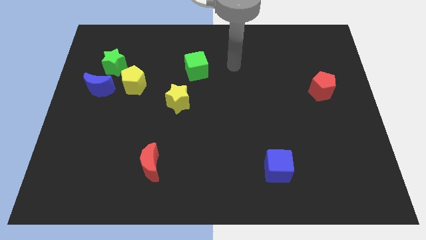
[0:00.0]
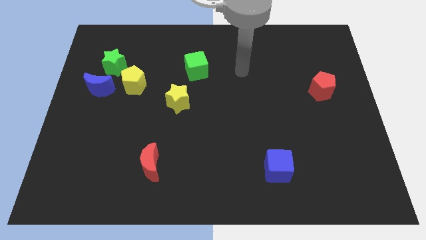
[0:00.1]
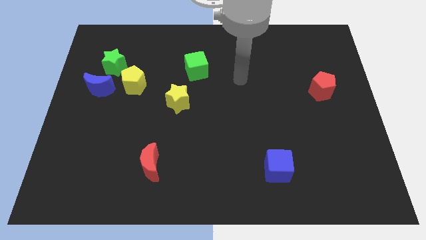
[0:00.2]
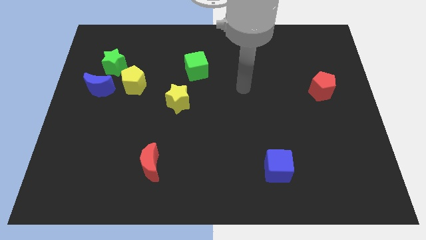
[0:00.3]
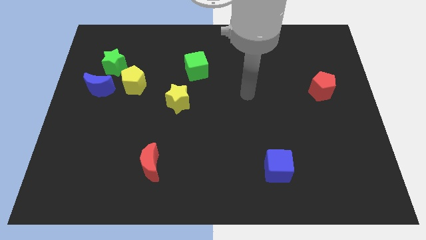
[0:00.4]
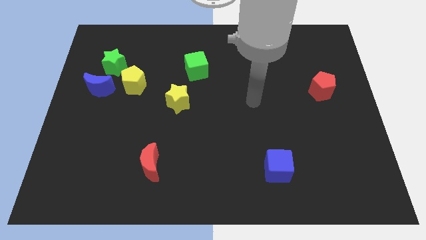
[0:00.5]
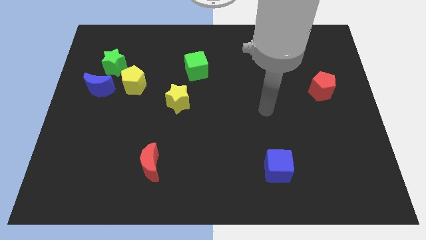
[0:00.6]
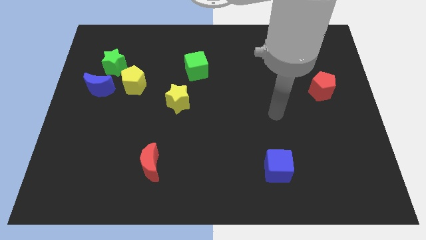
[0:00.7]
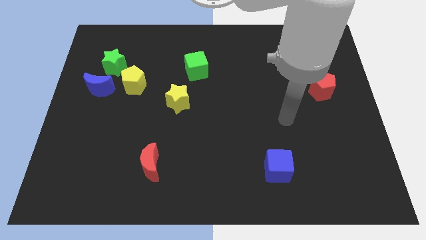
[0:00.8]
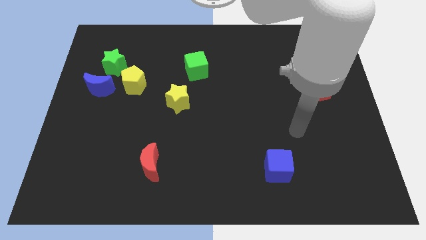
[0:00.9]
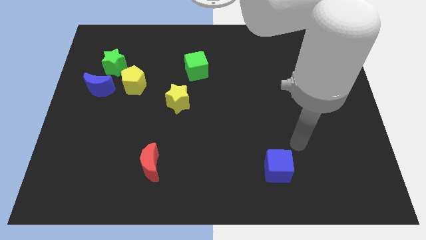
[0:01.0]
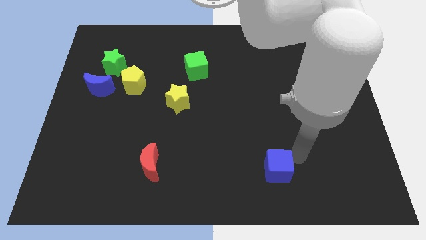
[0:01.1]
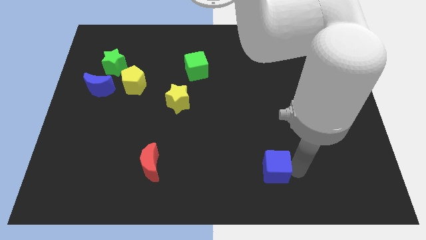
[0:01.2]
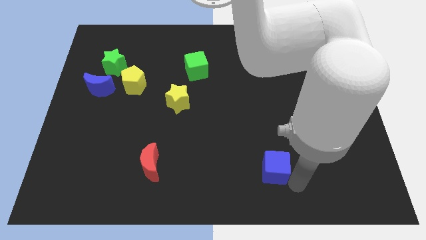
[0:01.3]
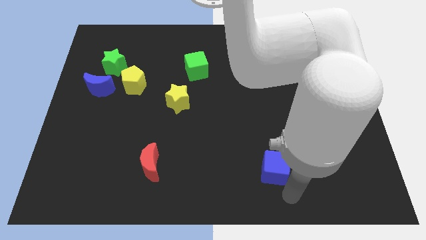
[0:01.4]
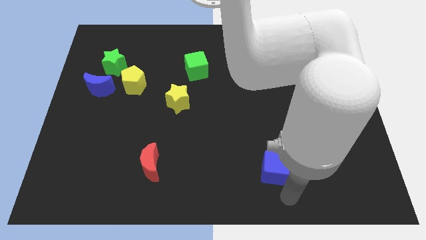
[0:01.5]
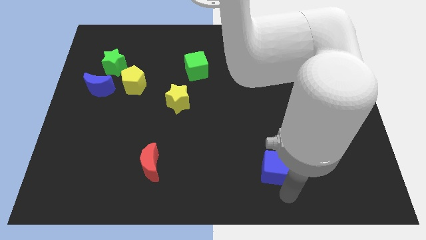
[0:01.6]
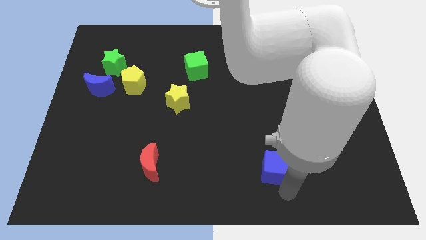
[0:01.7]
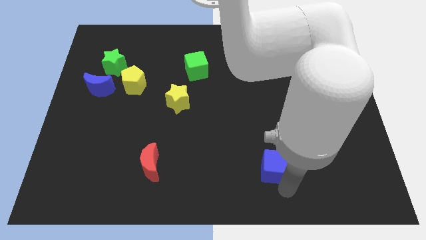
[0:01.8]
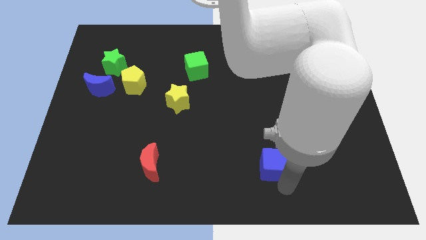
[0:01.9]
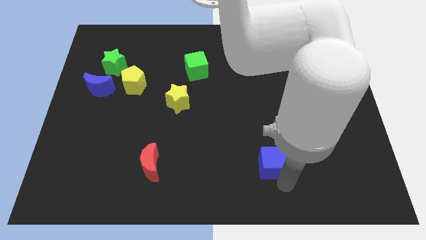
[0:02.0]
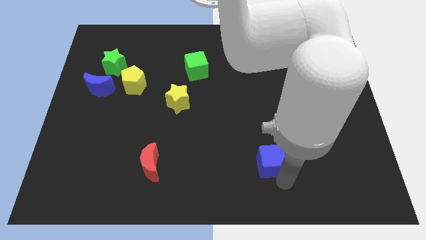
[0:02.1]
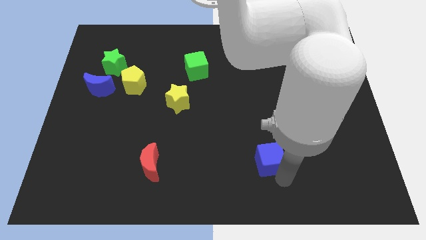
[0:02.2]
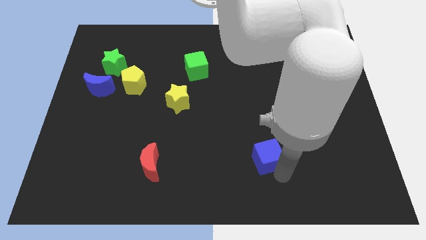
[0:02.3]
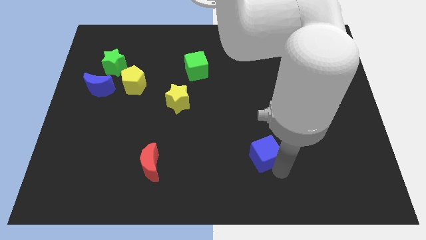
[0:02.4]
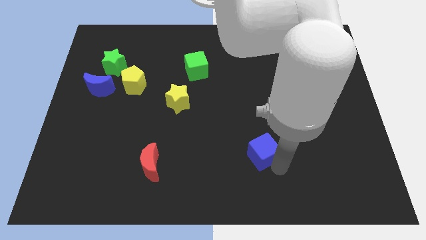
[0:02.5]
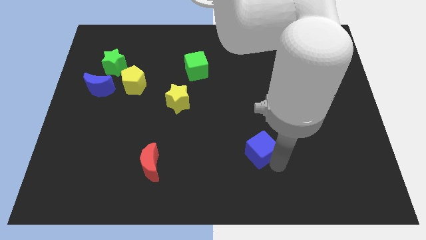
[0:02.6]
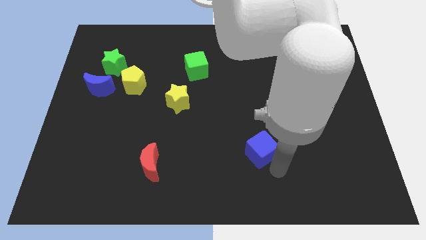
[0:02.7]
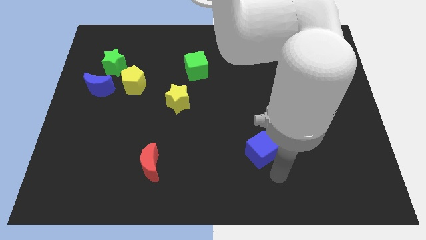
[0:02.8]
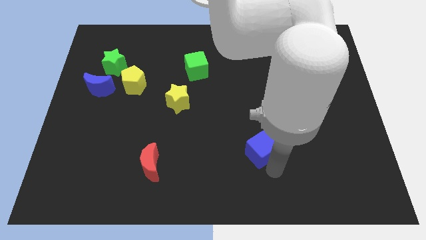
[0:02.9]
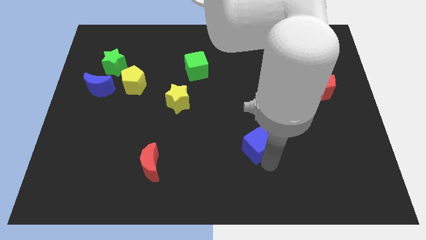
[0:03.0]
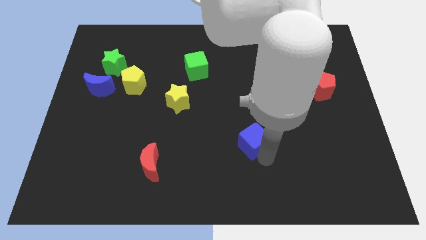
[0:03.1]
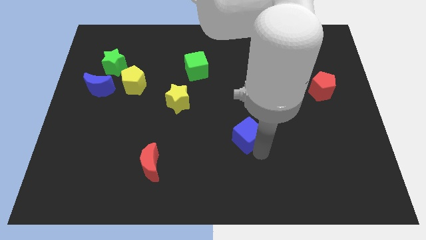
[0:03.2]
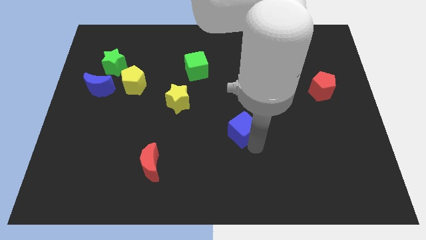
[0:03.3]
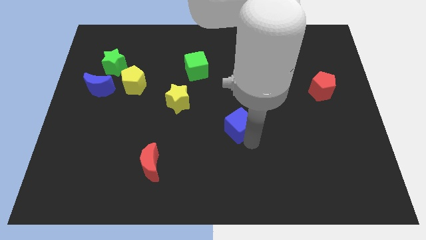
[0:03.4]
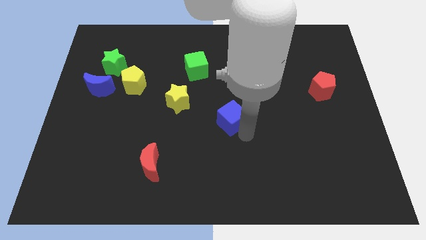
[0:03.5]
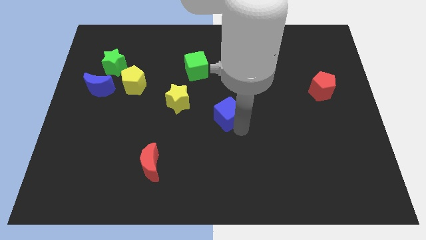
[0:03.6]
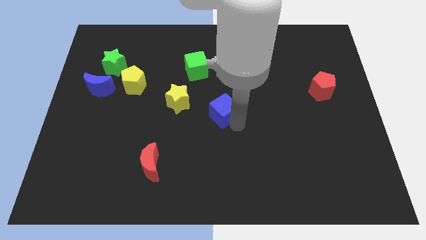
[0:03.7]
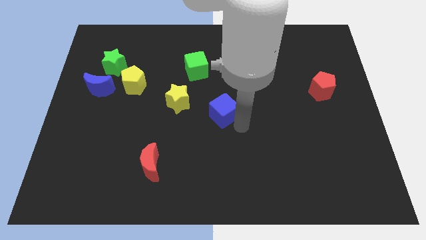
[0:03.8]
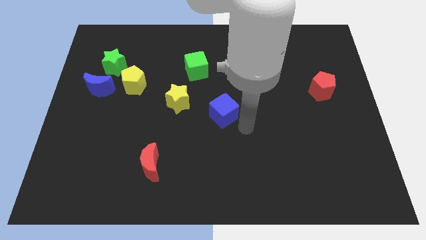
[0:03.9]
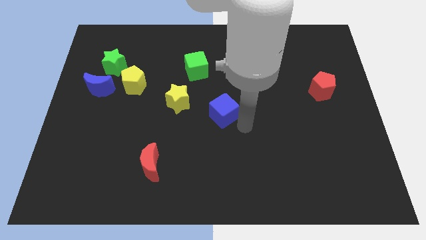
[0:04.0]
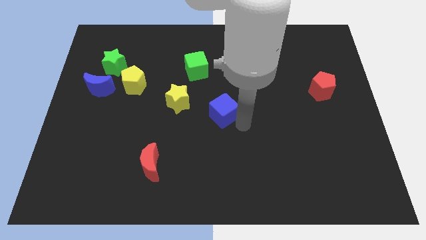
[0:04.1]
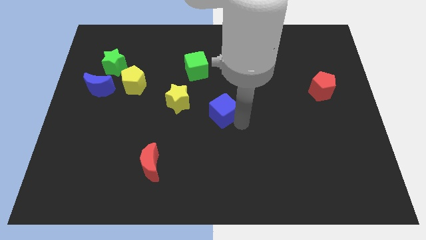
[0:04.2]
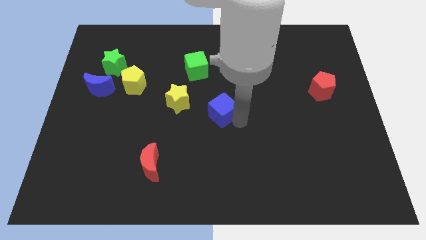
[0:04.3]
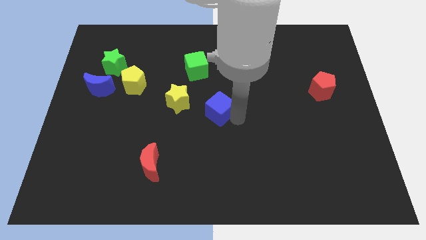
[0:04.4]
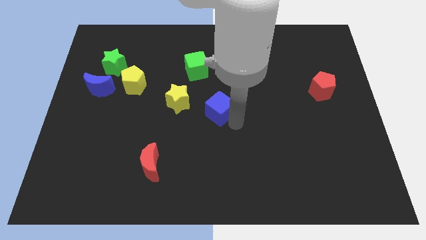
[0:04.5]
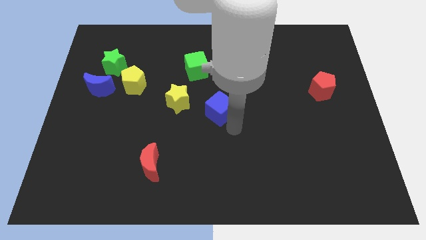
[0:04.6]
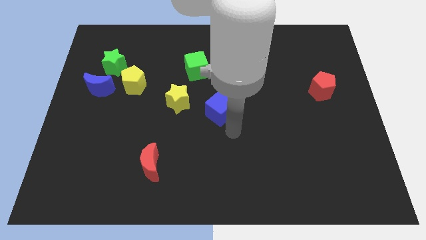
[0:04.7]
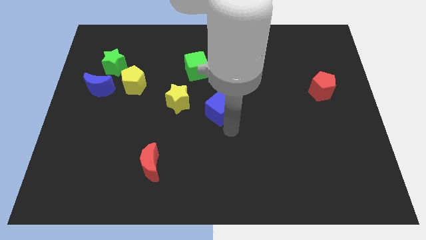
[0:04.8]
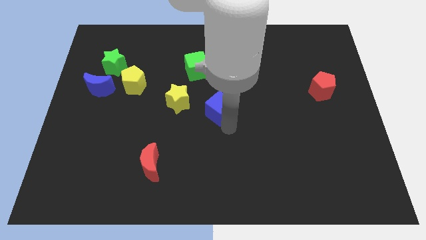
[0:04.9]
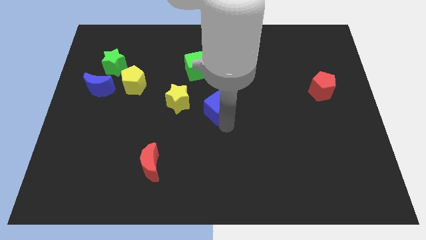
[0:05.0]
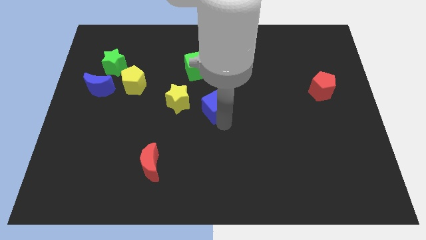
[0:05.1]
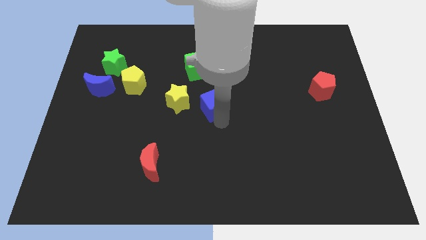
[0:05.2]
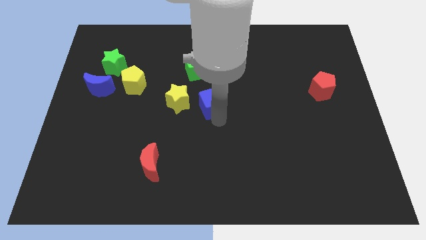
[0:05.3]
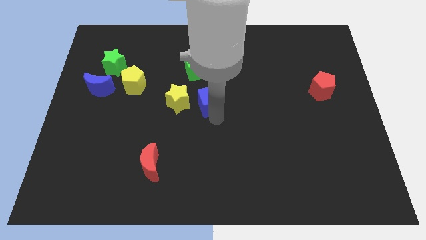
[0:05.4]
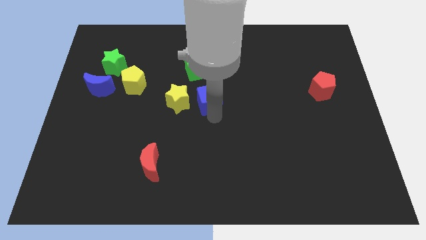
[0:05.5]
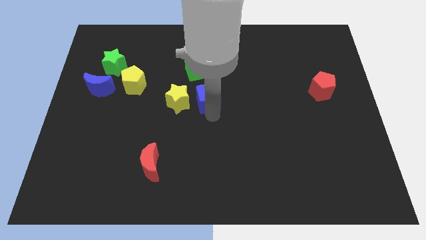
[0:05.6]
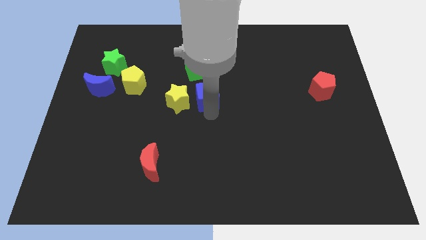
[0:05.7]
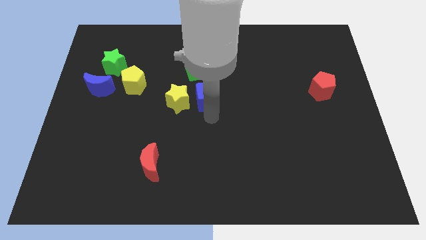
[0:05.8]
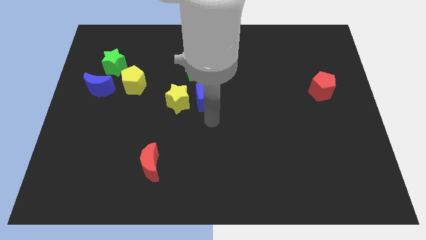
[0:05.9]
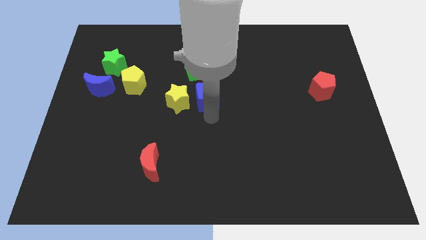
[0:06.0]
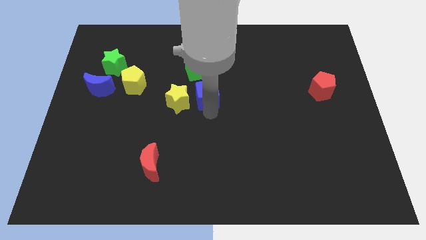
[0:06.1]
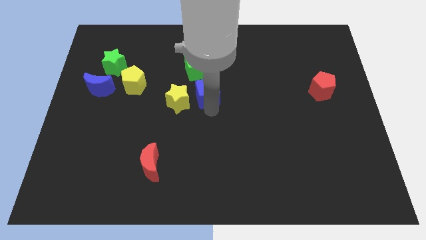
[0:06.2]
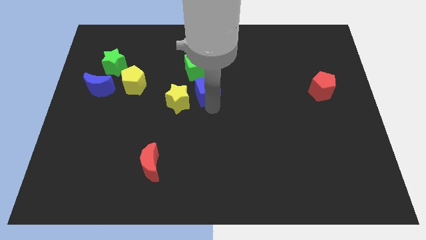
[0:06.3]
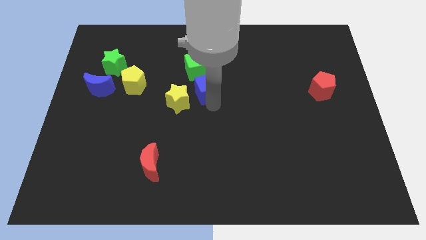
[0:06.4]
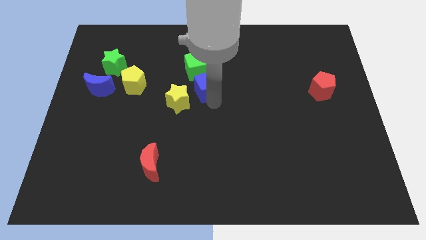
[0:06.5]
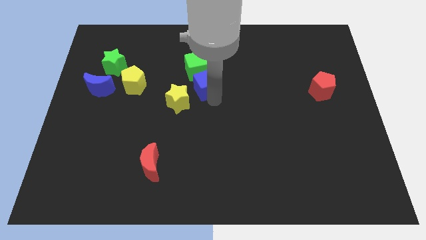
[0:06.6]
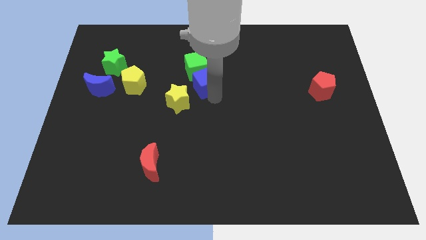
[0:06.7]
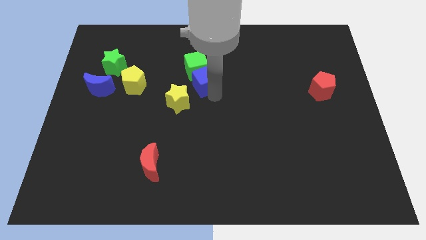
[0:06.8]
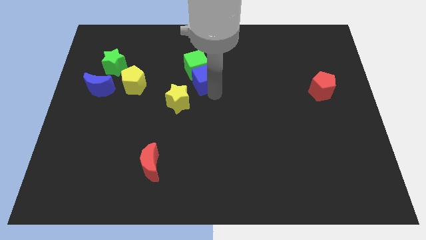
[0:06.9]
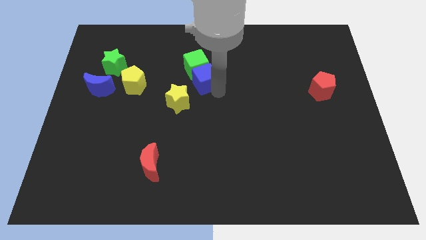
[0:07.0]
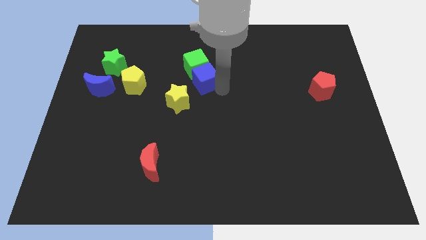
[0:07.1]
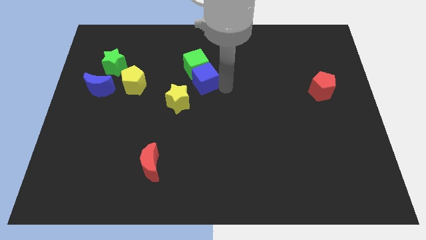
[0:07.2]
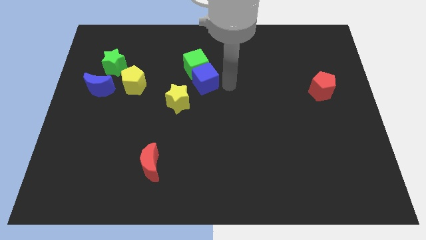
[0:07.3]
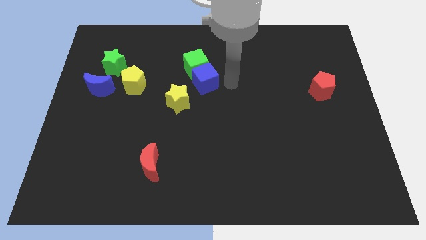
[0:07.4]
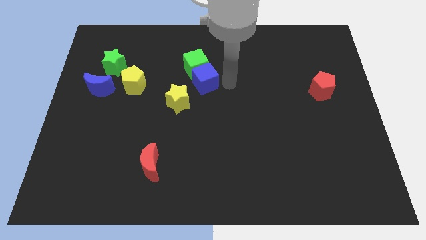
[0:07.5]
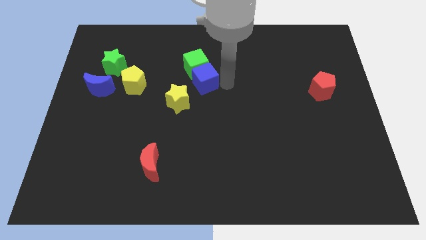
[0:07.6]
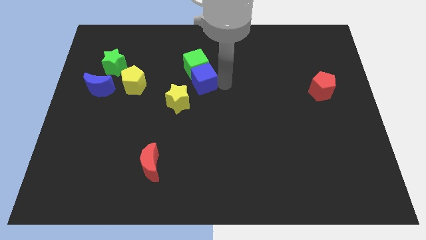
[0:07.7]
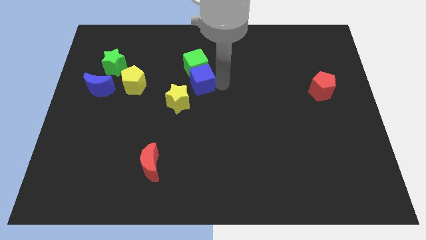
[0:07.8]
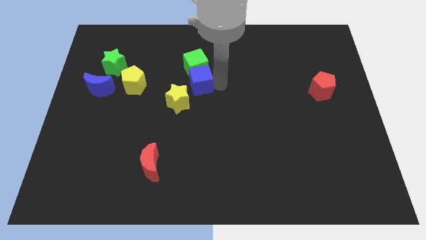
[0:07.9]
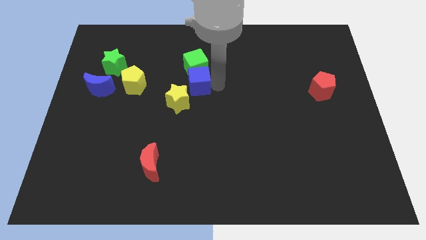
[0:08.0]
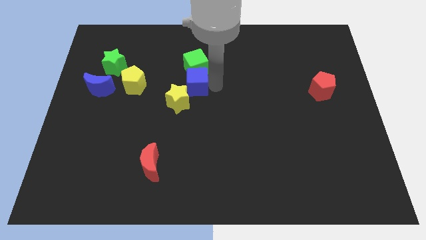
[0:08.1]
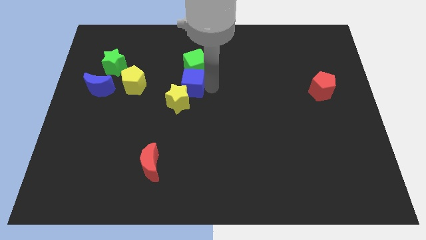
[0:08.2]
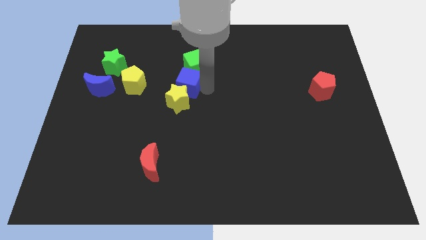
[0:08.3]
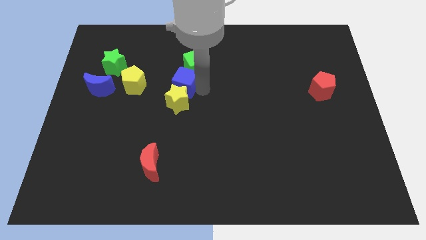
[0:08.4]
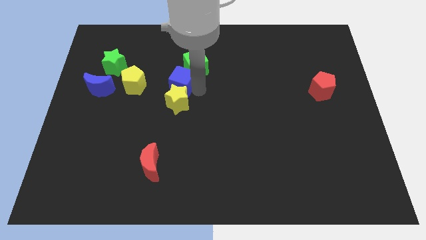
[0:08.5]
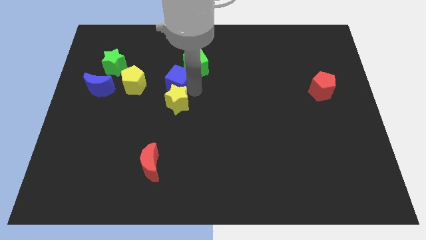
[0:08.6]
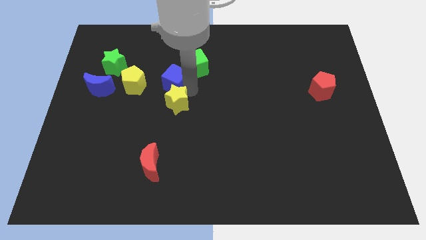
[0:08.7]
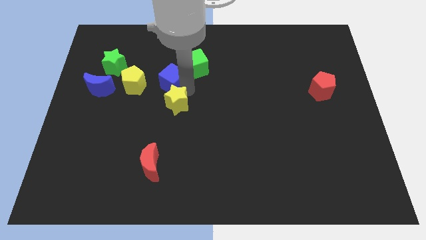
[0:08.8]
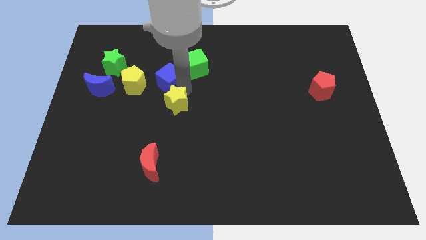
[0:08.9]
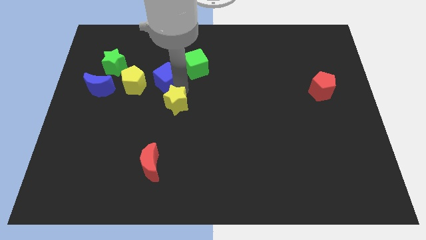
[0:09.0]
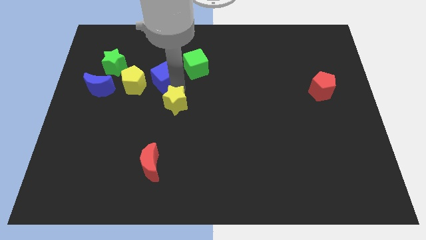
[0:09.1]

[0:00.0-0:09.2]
move the blue cube diagonally up and to the right of the yellow pentagon
